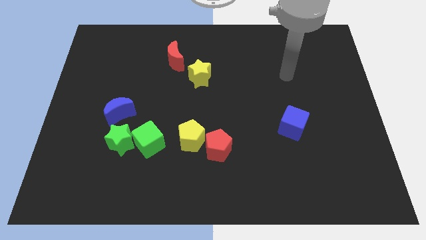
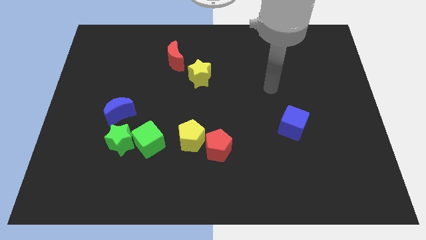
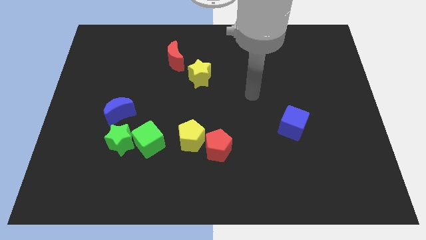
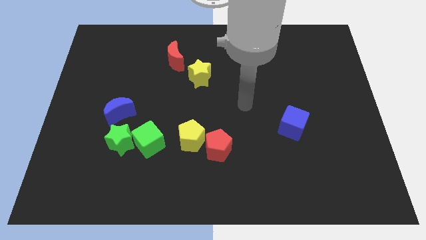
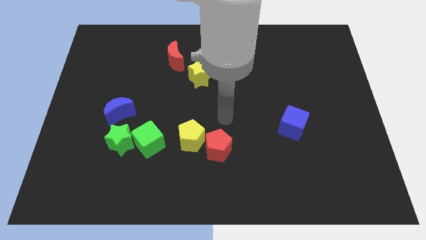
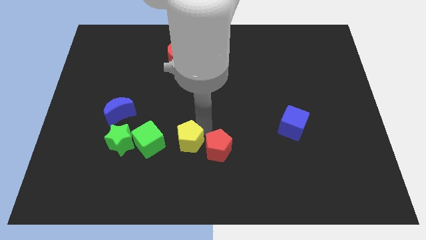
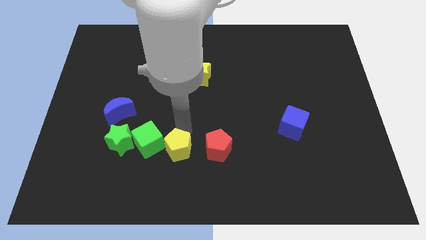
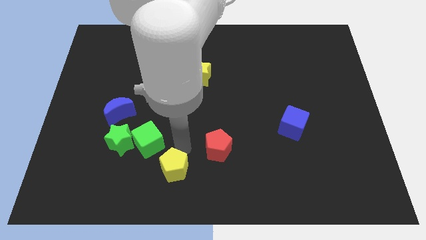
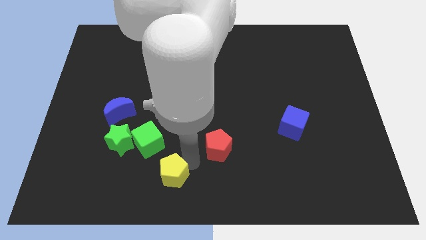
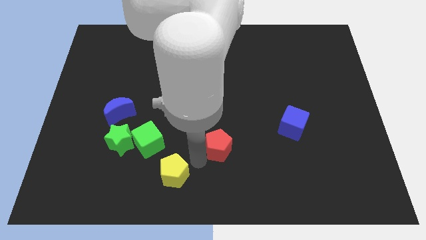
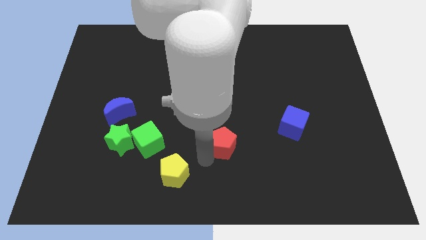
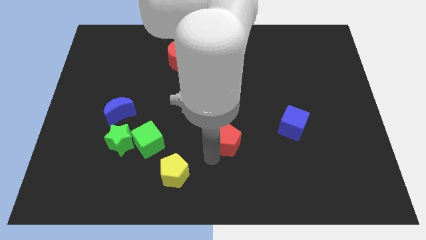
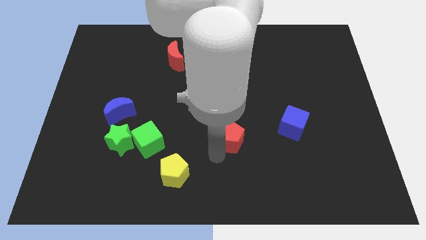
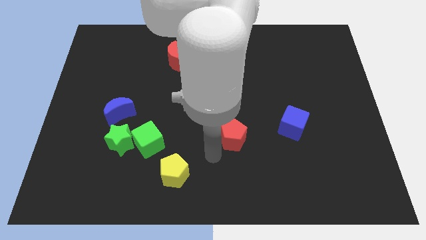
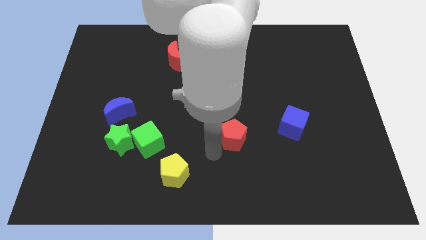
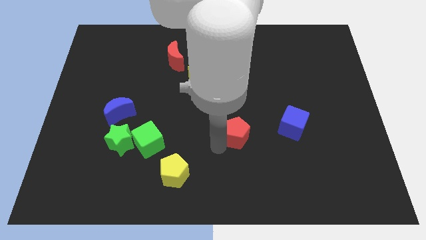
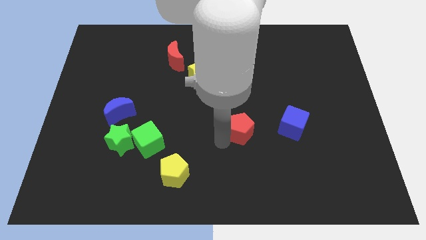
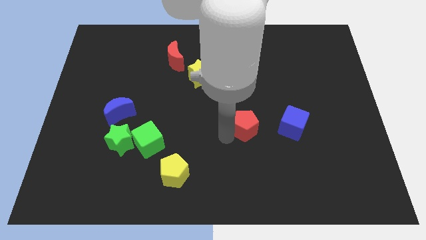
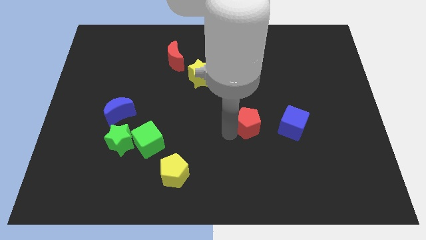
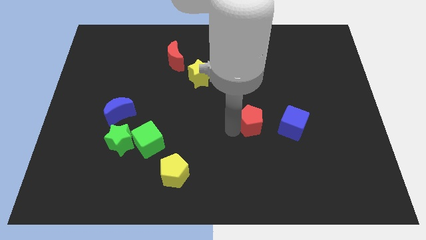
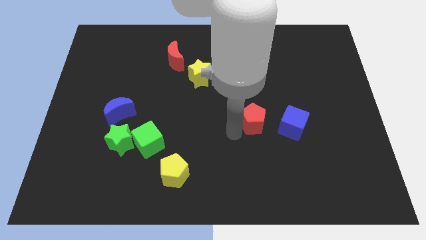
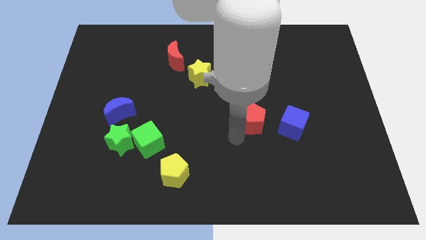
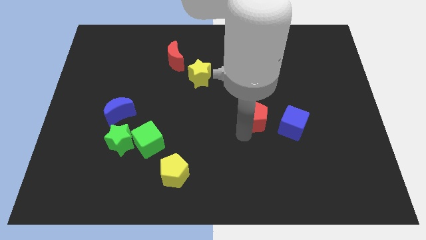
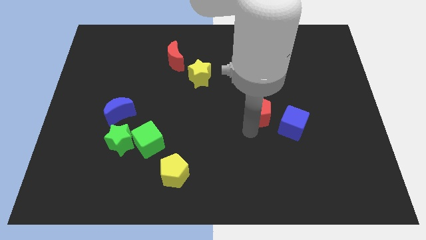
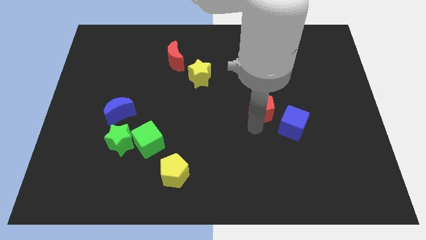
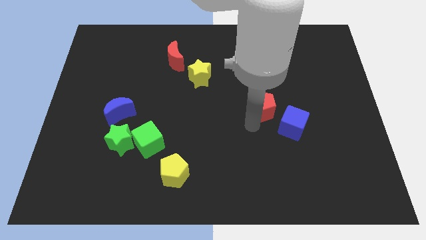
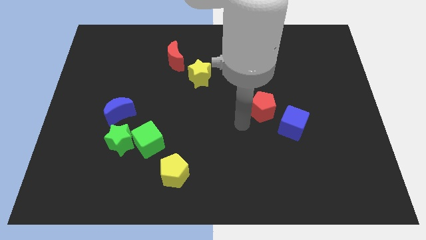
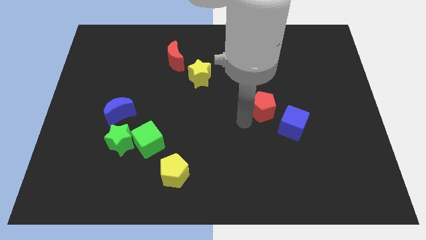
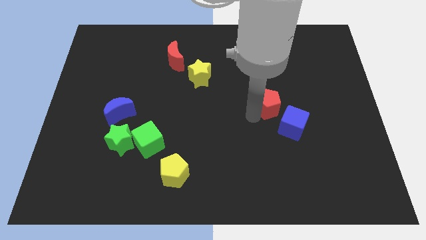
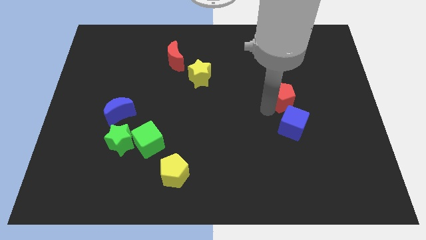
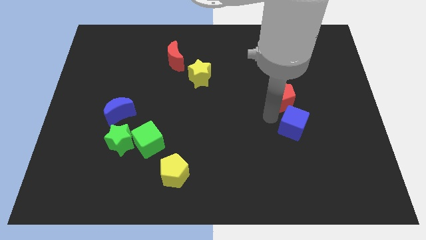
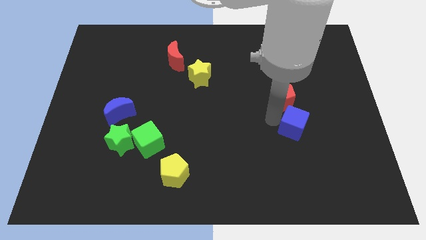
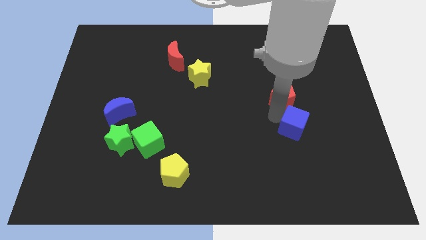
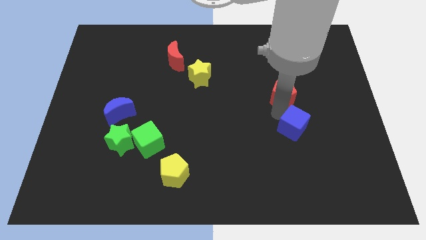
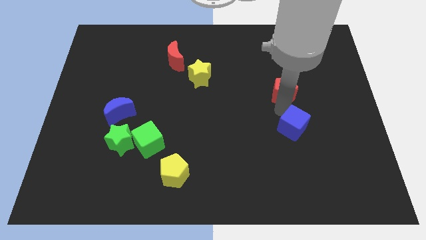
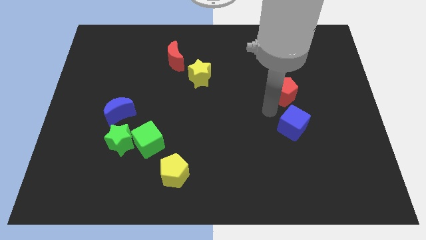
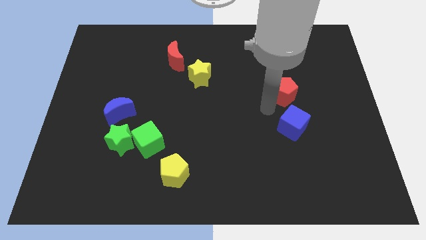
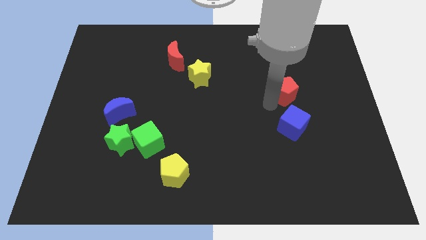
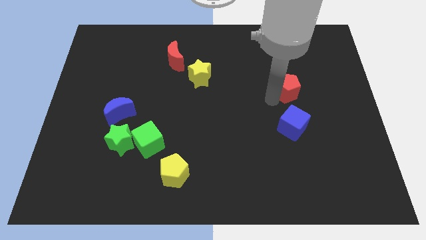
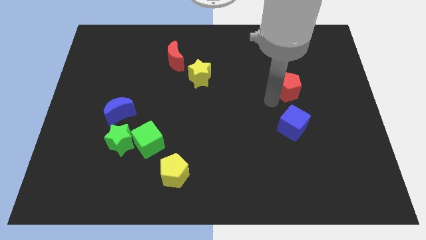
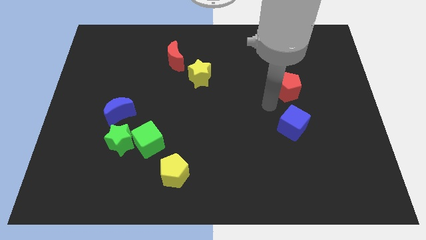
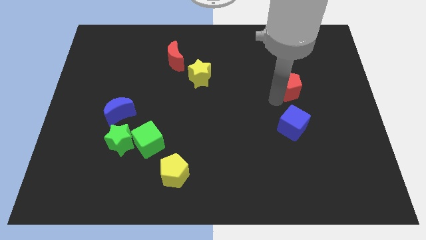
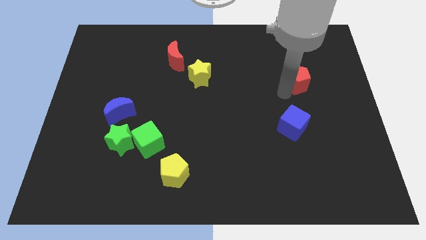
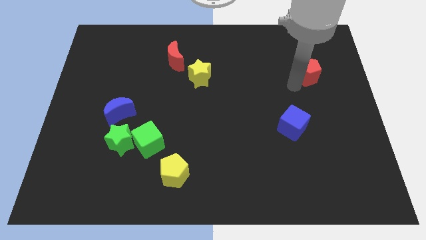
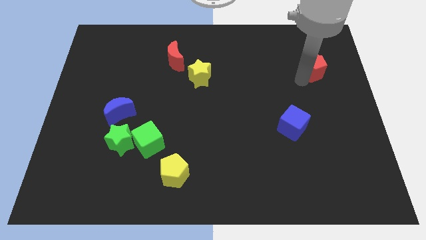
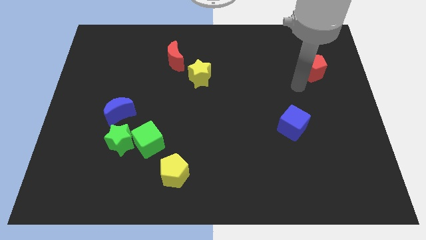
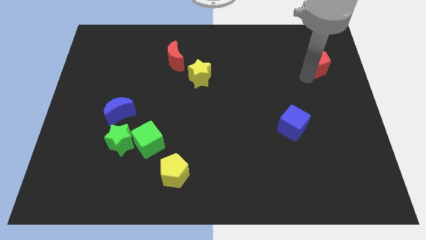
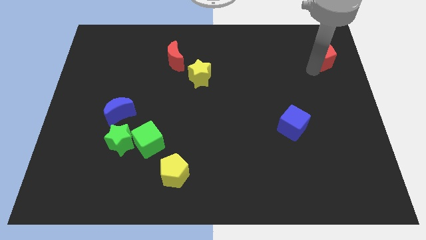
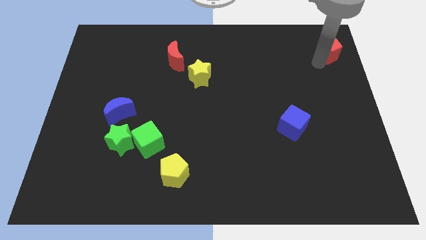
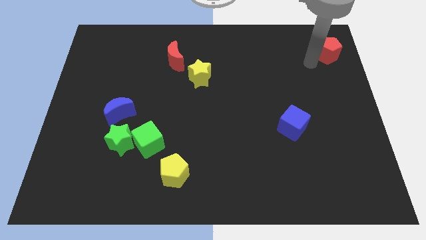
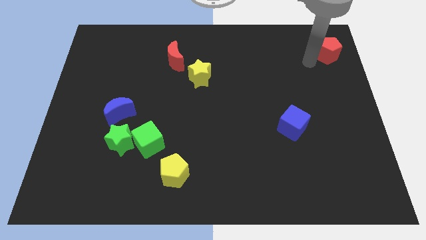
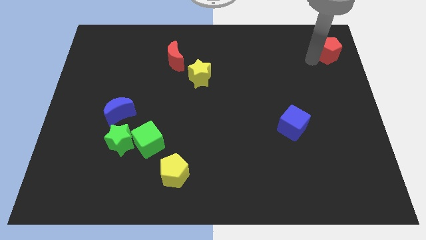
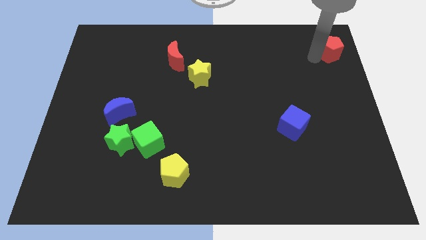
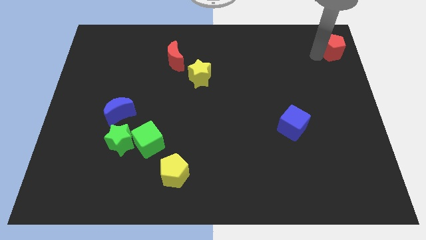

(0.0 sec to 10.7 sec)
push the red pentagon to the top right of the board

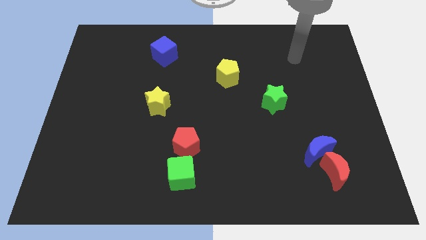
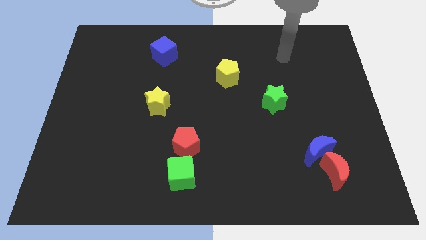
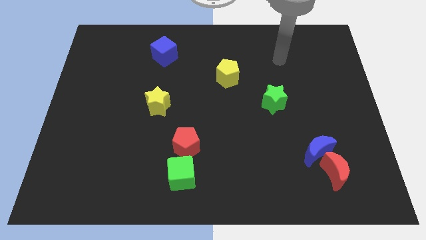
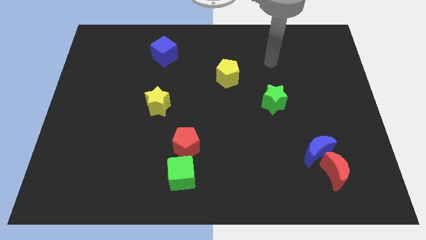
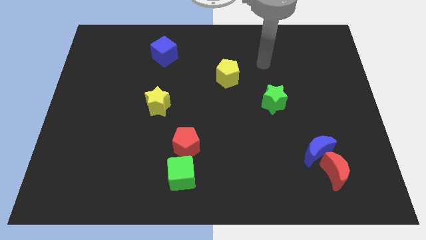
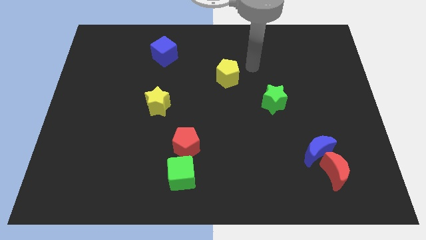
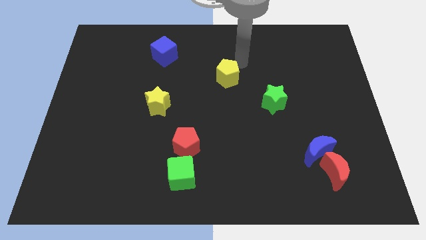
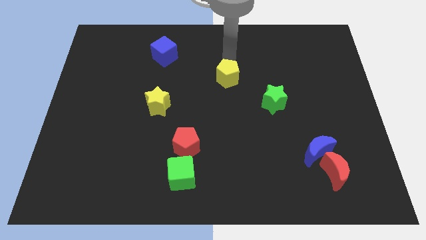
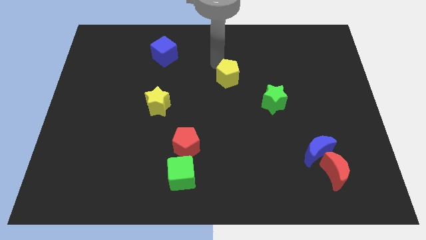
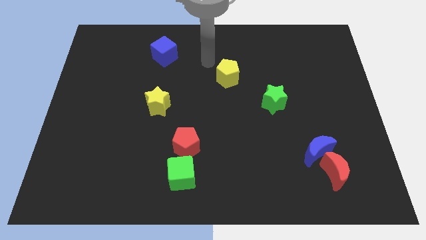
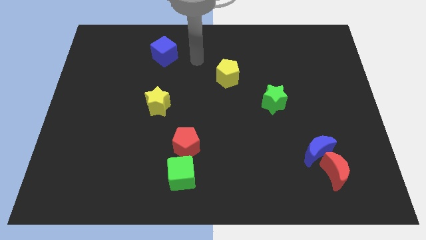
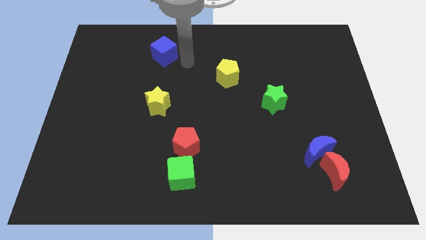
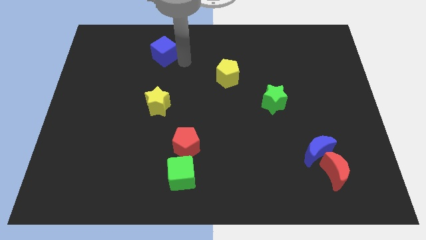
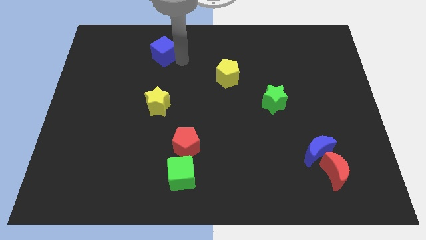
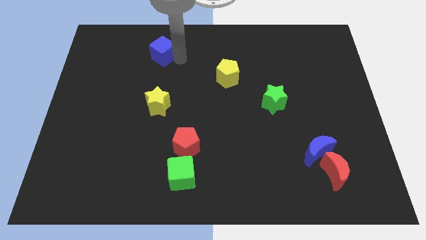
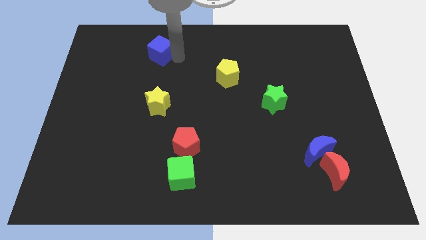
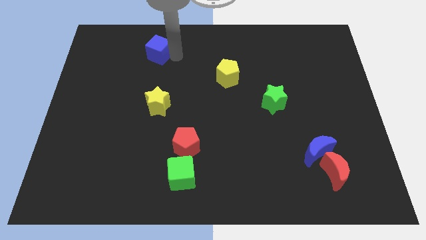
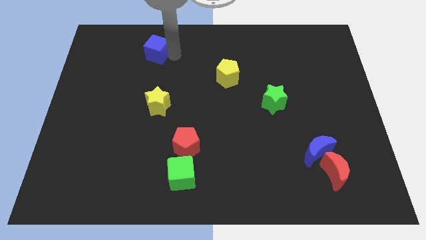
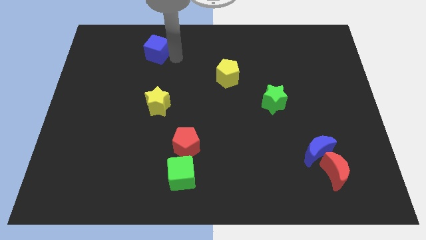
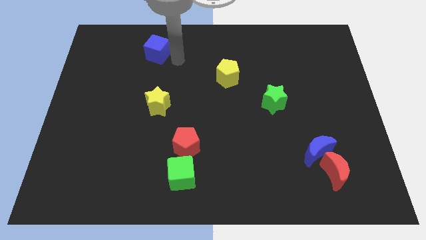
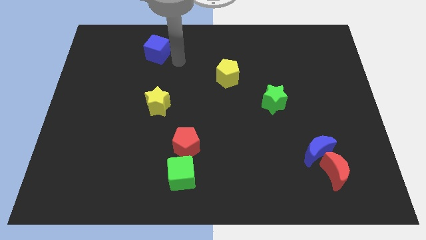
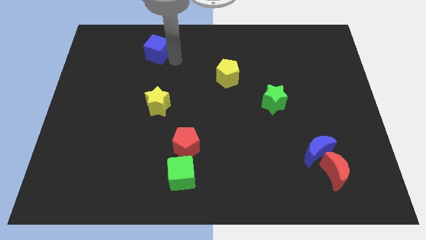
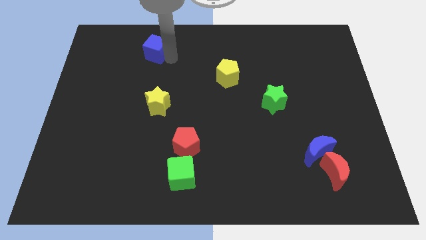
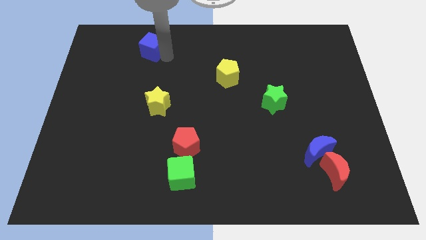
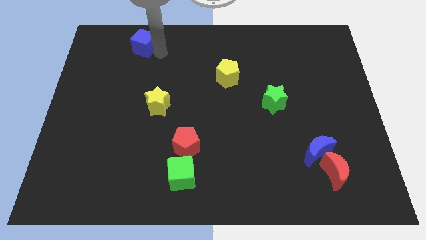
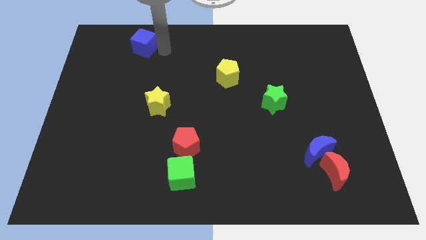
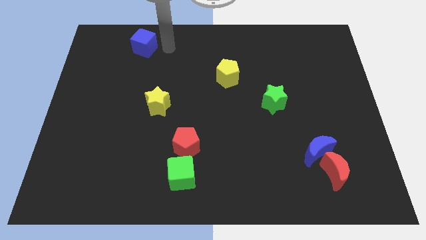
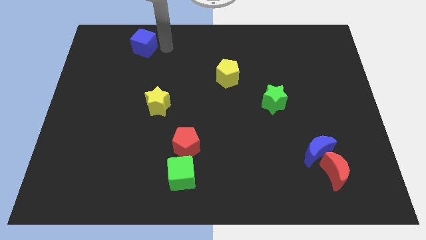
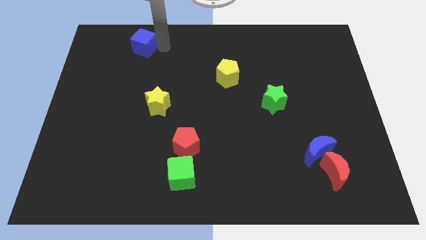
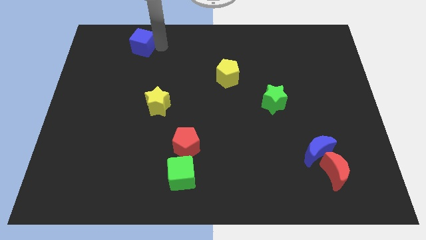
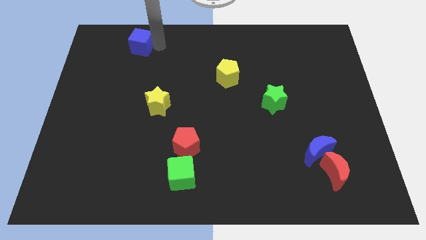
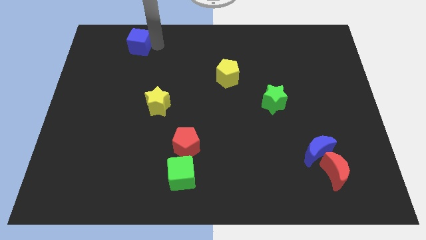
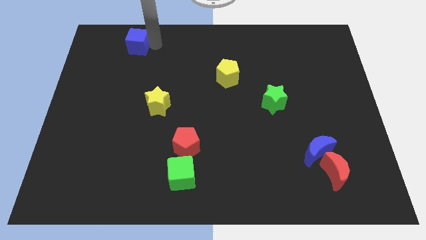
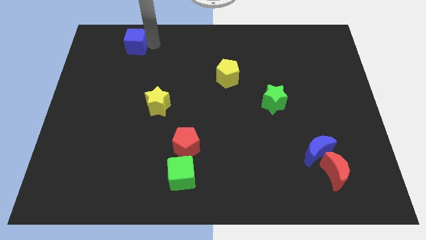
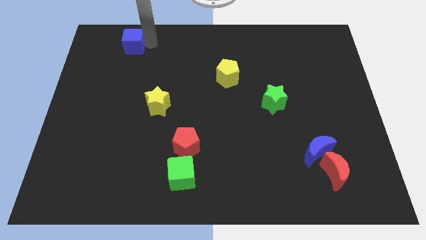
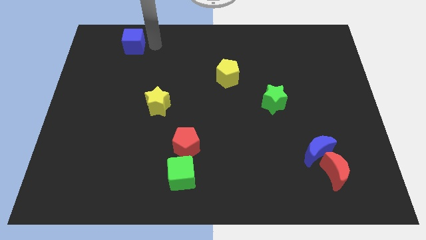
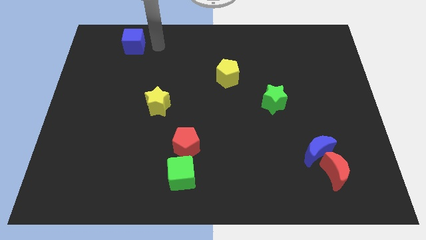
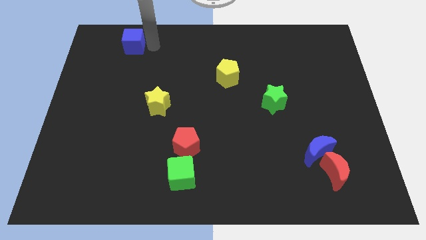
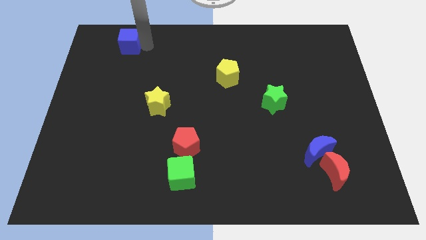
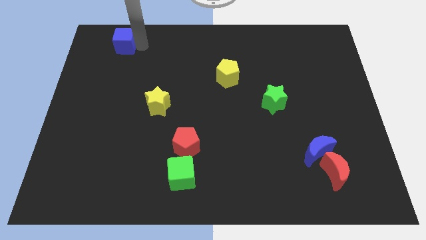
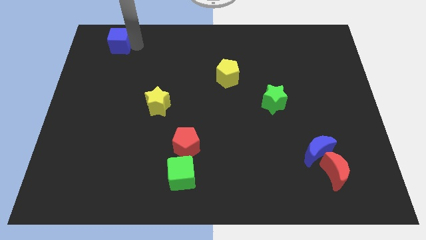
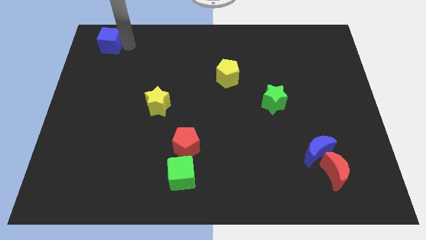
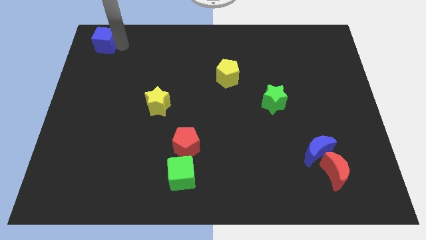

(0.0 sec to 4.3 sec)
put the blue cube to the upper left corner
